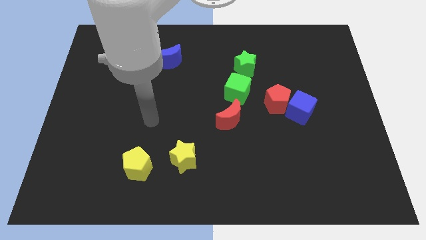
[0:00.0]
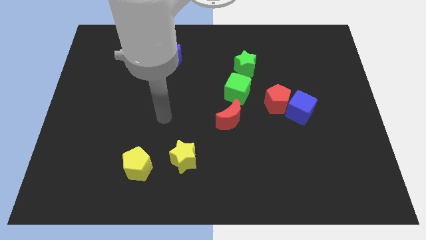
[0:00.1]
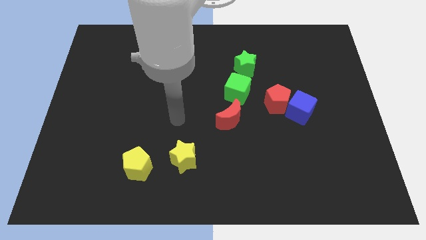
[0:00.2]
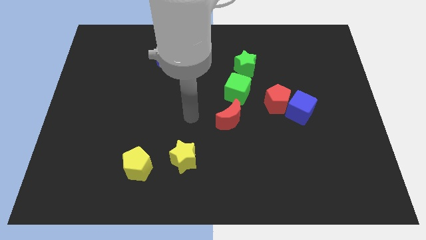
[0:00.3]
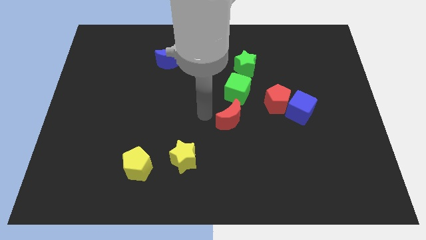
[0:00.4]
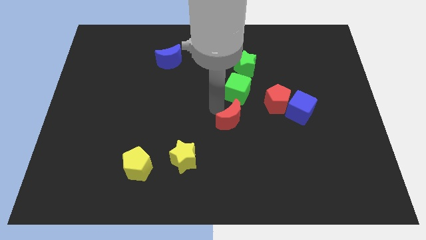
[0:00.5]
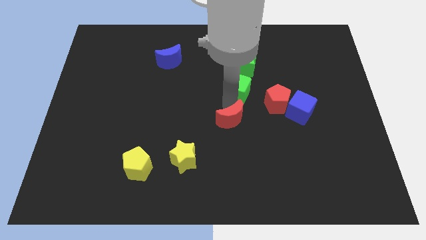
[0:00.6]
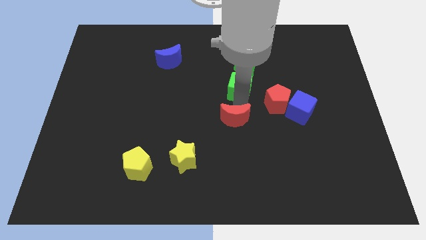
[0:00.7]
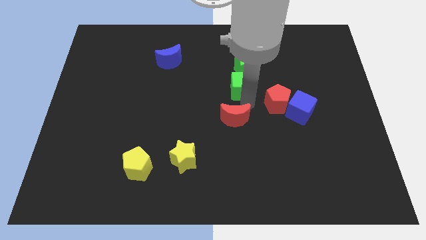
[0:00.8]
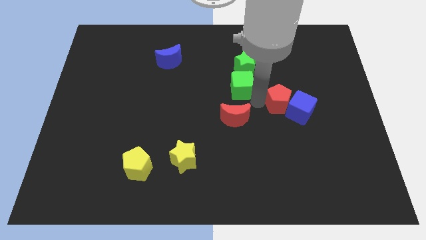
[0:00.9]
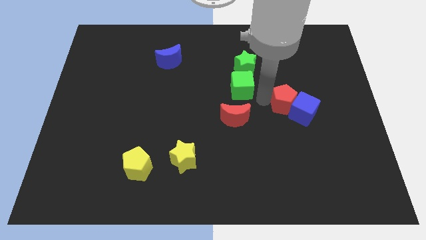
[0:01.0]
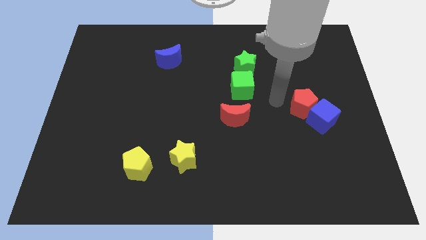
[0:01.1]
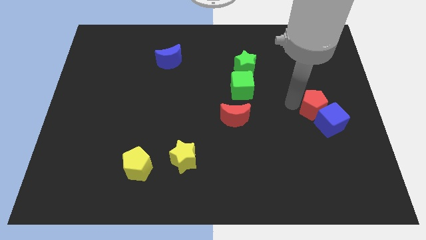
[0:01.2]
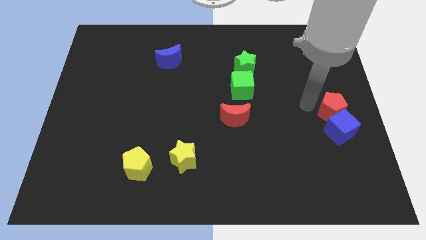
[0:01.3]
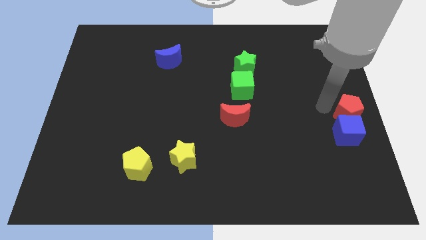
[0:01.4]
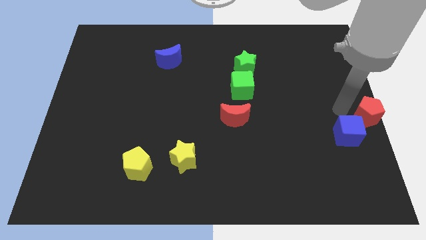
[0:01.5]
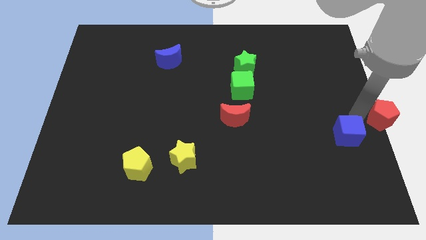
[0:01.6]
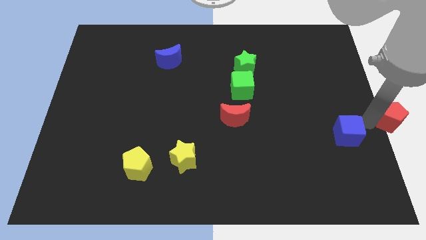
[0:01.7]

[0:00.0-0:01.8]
separate the blue cube from the red pentagon

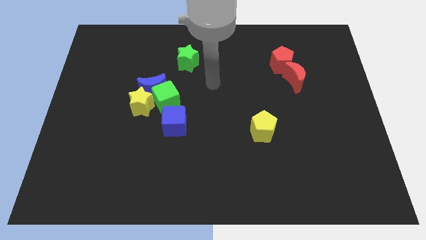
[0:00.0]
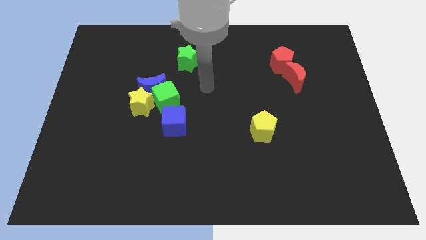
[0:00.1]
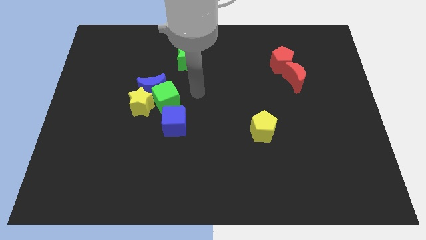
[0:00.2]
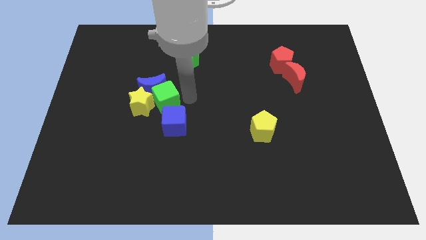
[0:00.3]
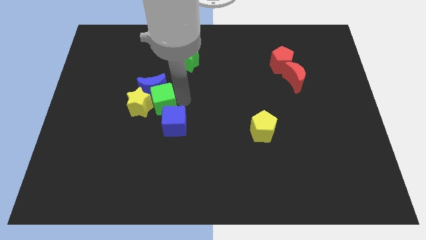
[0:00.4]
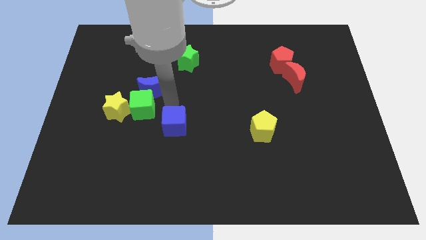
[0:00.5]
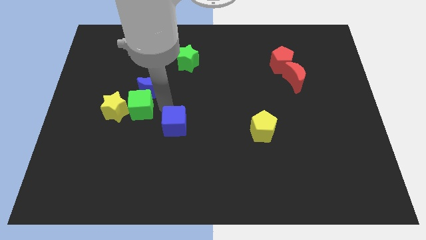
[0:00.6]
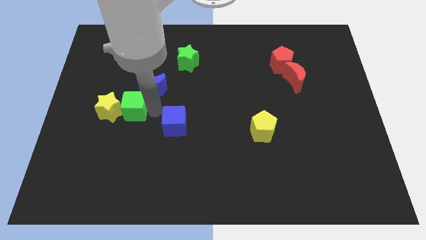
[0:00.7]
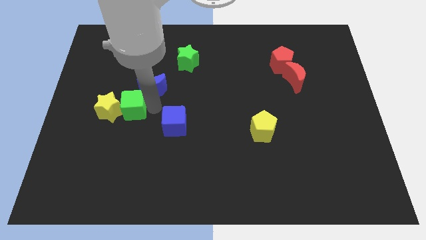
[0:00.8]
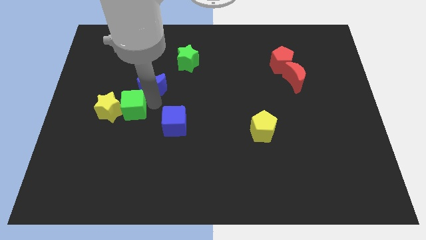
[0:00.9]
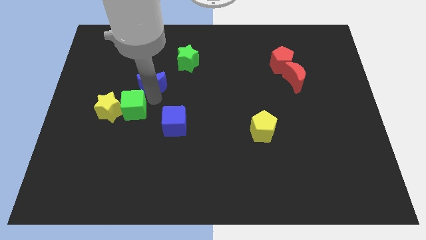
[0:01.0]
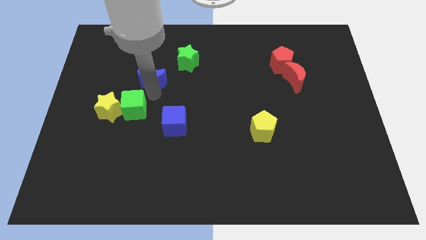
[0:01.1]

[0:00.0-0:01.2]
move the blue moon away from the green cube and yellow star

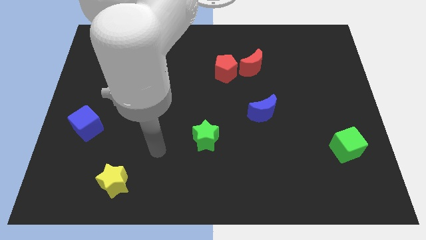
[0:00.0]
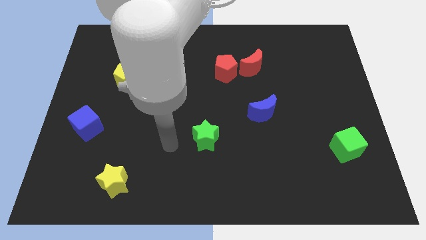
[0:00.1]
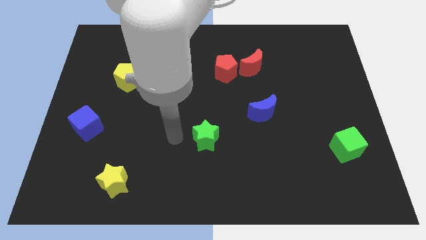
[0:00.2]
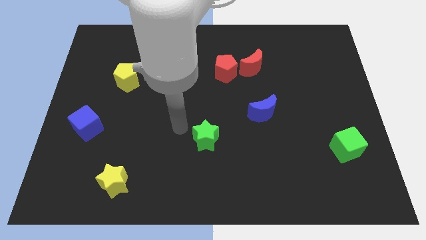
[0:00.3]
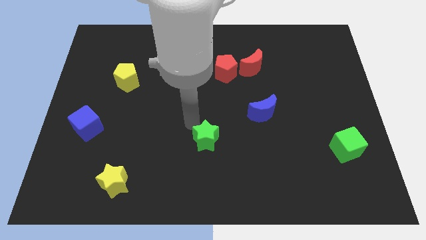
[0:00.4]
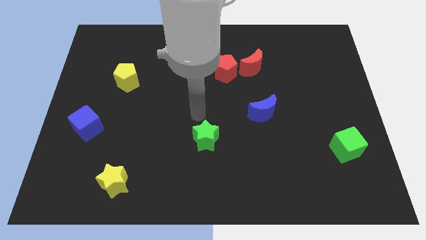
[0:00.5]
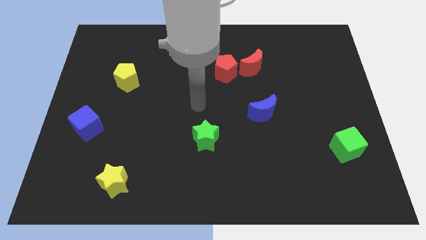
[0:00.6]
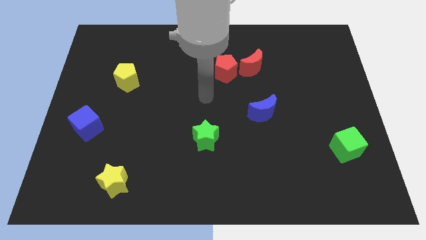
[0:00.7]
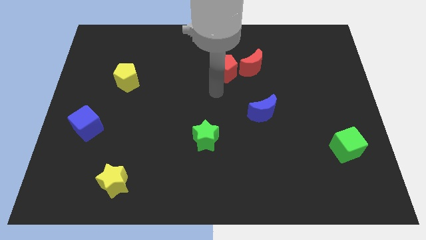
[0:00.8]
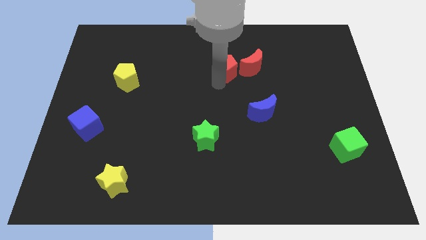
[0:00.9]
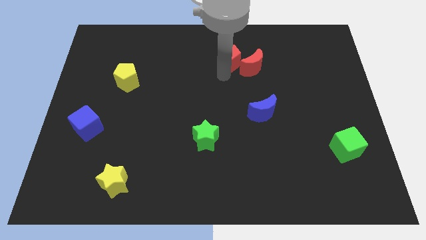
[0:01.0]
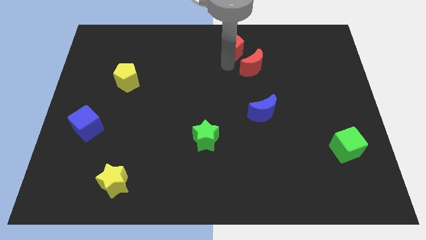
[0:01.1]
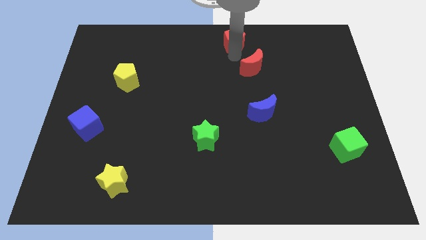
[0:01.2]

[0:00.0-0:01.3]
separate the red moon from the red pentagon

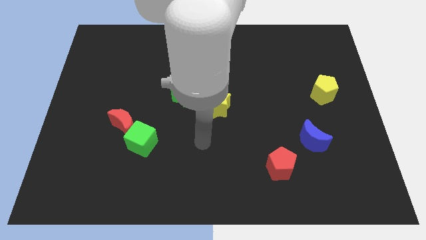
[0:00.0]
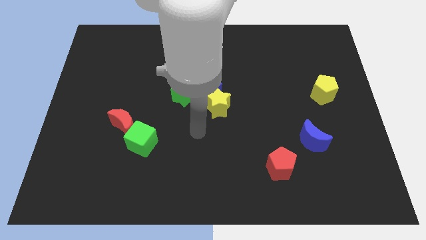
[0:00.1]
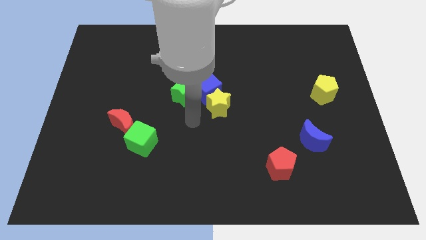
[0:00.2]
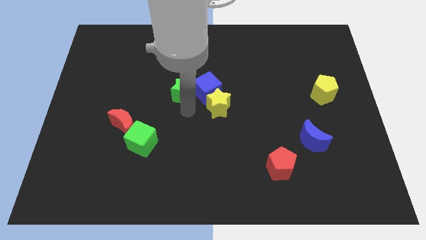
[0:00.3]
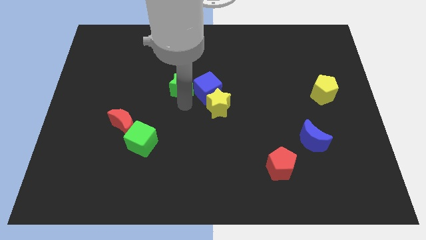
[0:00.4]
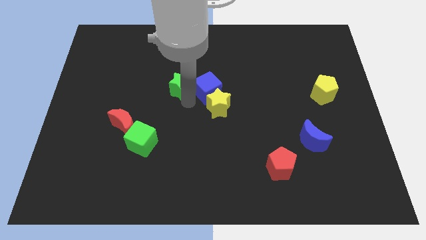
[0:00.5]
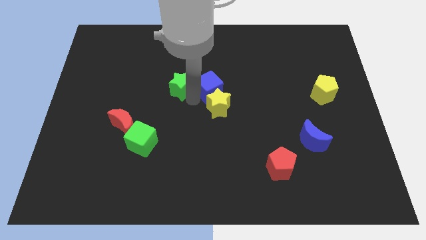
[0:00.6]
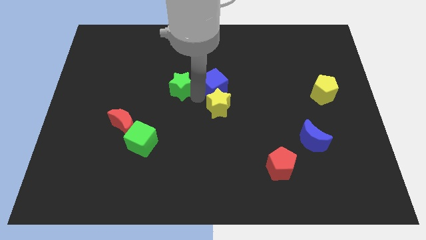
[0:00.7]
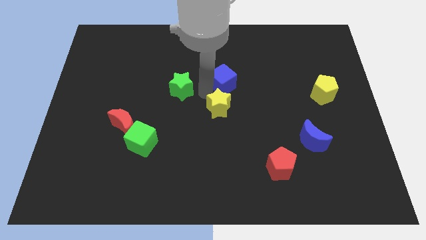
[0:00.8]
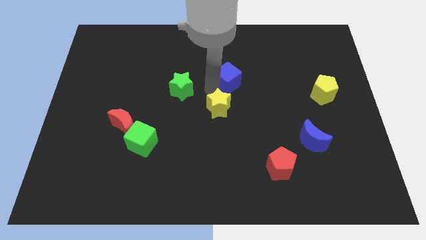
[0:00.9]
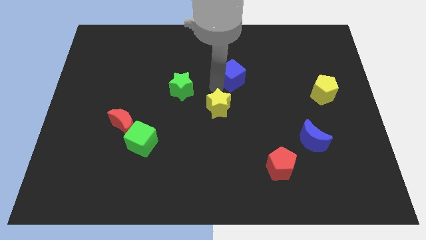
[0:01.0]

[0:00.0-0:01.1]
pull the blue cube apart from the yellow star and green star

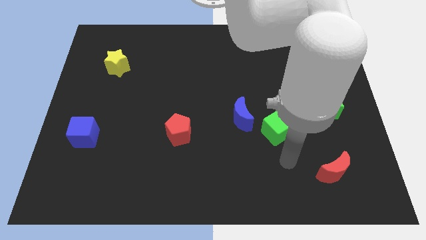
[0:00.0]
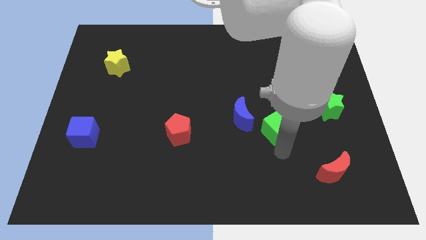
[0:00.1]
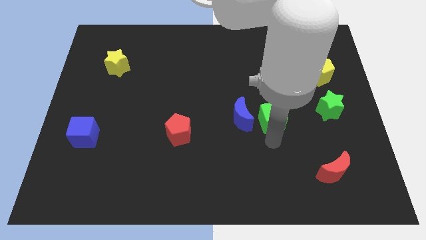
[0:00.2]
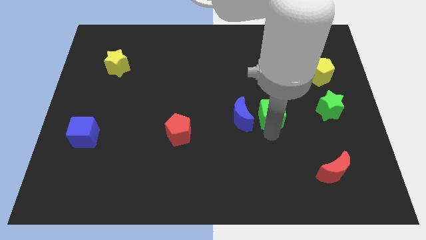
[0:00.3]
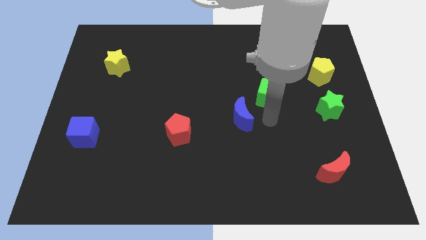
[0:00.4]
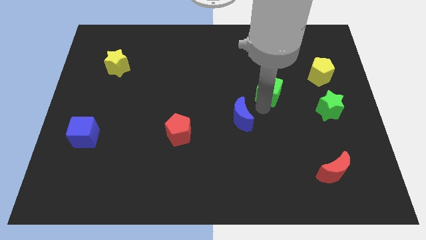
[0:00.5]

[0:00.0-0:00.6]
separate the blue moon from the green cube

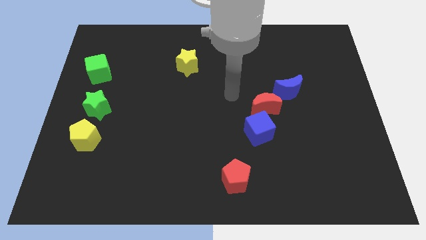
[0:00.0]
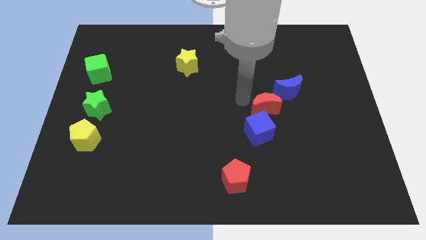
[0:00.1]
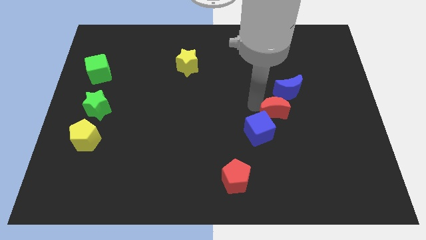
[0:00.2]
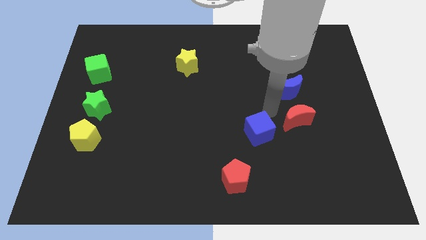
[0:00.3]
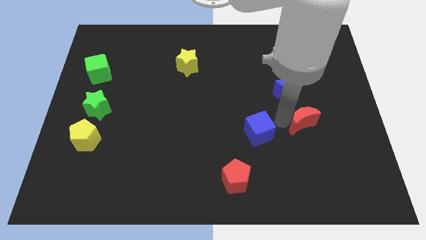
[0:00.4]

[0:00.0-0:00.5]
separate the blue cube from the red moon

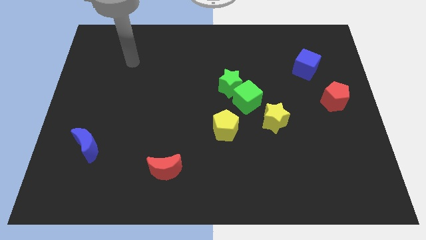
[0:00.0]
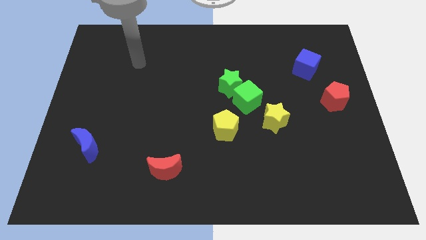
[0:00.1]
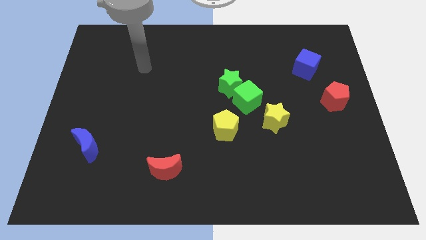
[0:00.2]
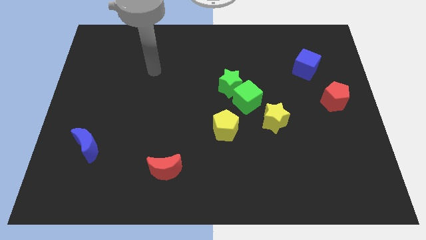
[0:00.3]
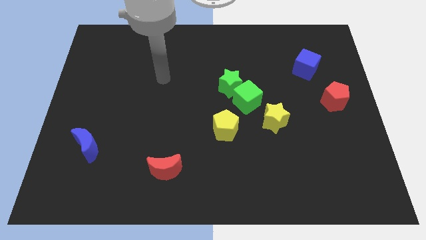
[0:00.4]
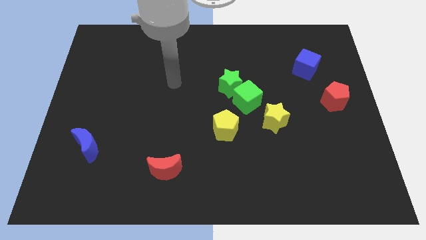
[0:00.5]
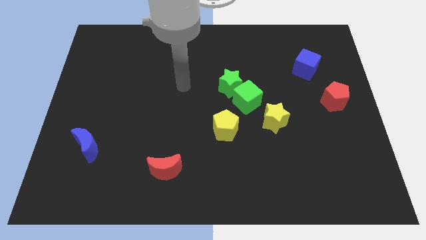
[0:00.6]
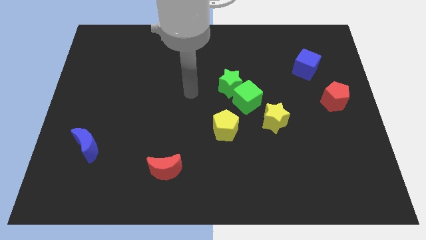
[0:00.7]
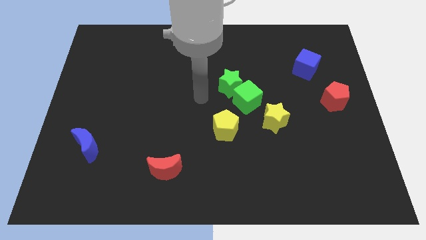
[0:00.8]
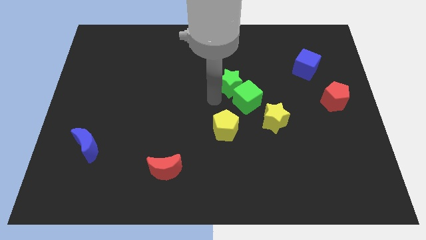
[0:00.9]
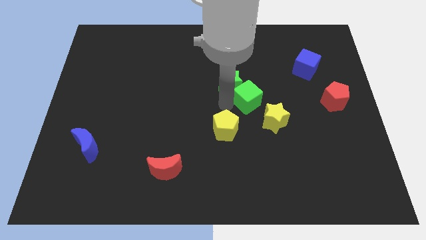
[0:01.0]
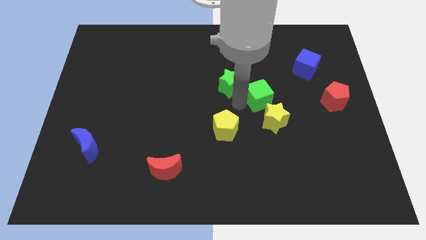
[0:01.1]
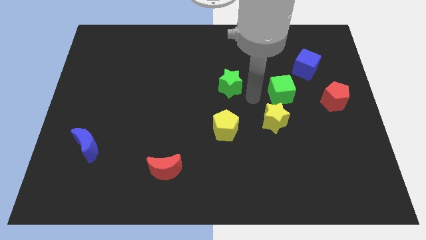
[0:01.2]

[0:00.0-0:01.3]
pull the green star apart from the green cube

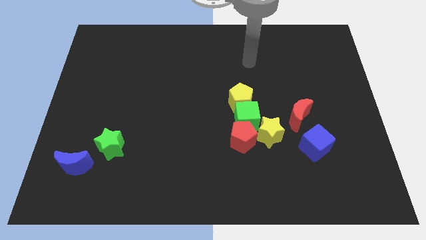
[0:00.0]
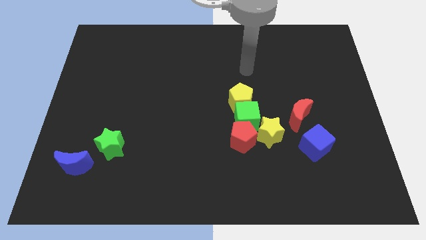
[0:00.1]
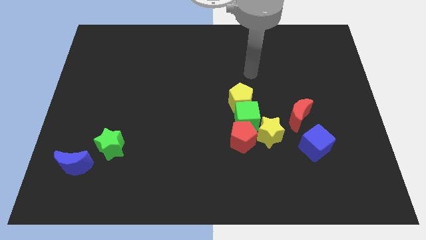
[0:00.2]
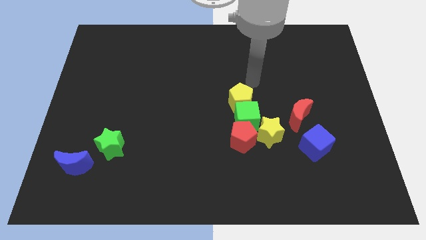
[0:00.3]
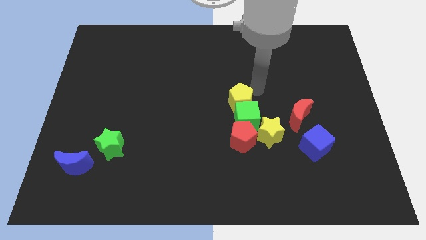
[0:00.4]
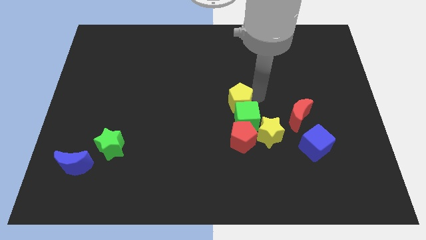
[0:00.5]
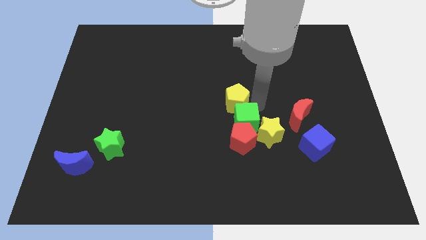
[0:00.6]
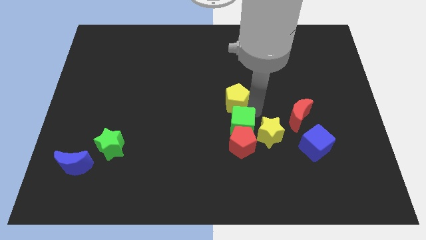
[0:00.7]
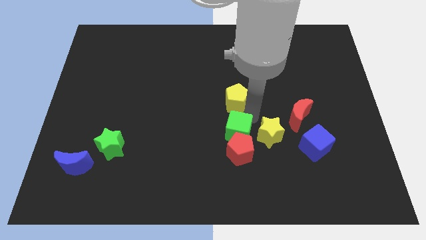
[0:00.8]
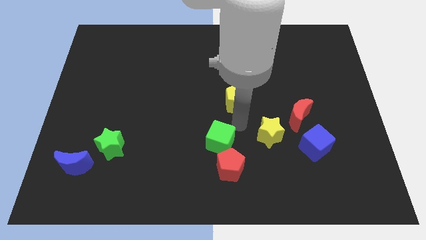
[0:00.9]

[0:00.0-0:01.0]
move the yellow pentagon away from the green cube

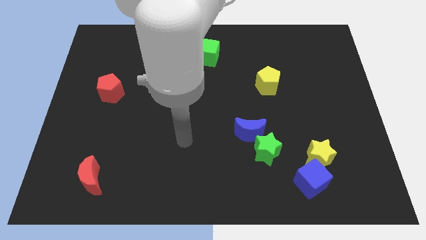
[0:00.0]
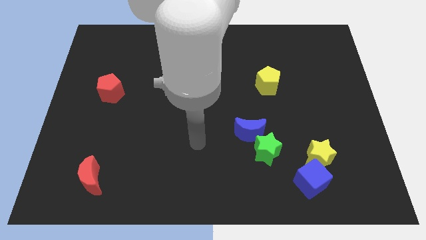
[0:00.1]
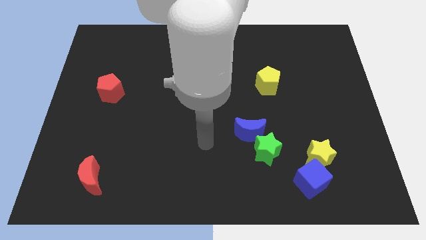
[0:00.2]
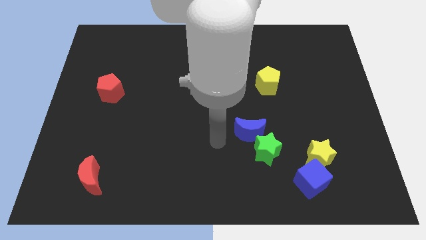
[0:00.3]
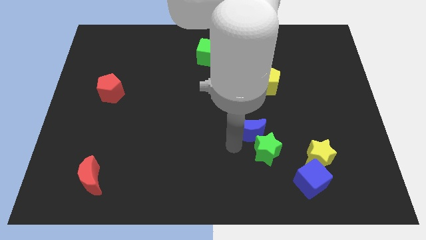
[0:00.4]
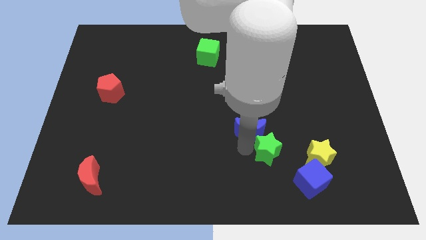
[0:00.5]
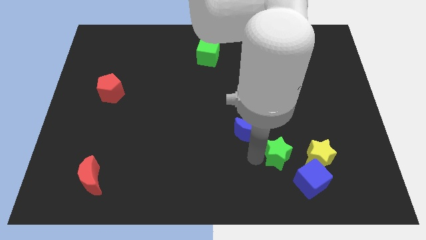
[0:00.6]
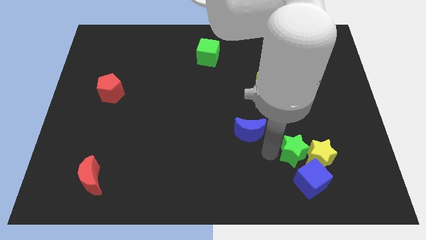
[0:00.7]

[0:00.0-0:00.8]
separate the blue moon from the green star
